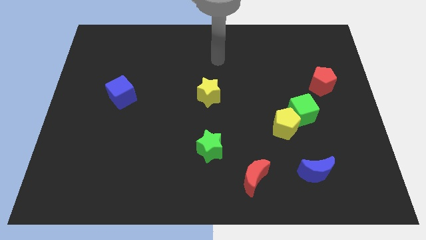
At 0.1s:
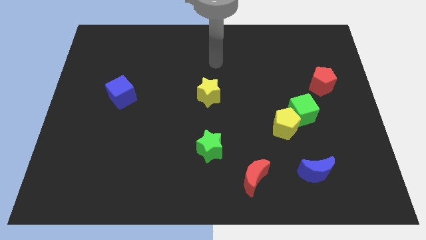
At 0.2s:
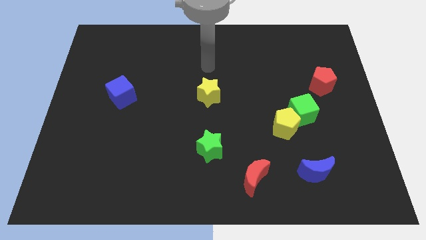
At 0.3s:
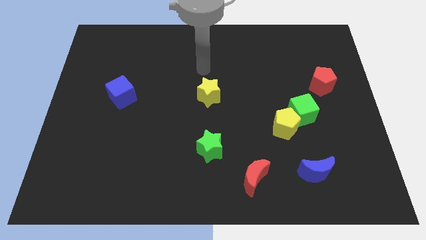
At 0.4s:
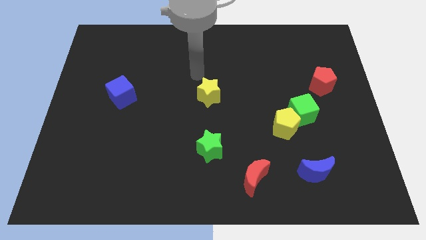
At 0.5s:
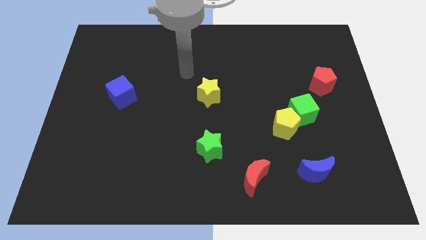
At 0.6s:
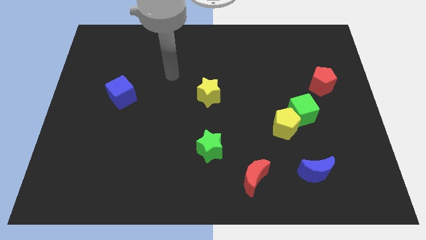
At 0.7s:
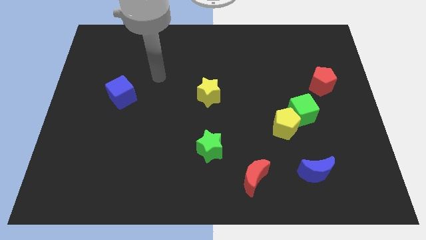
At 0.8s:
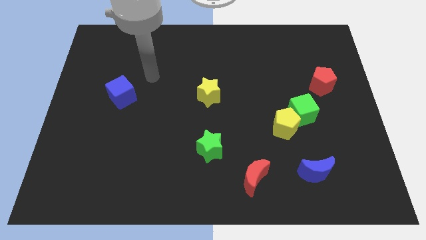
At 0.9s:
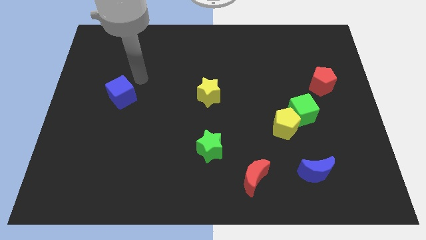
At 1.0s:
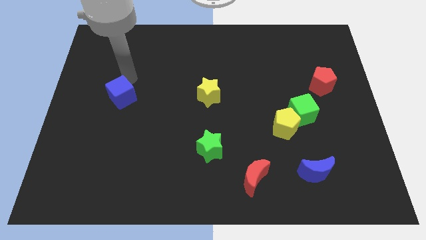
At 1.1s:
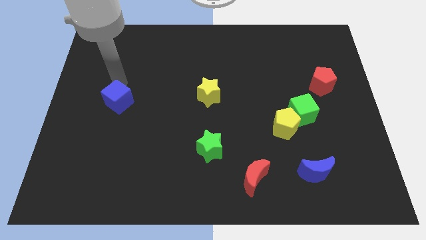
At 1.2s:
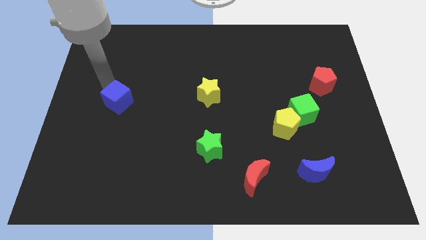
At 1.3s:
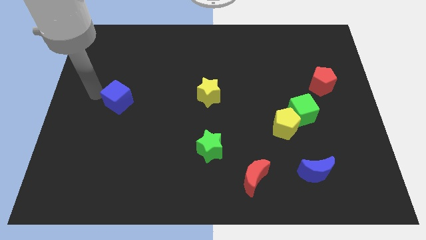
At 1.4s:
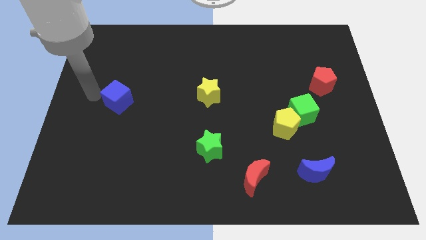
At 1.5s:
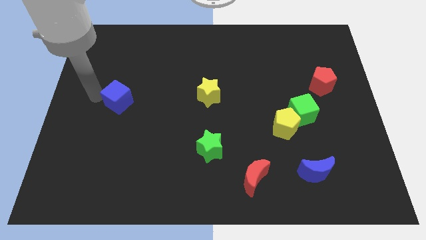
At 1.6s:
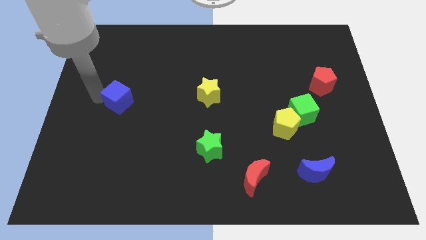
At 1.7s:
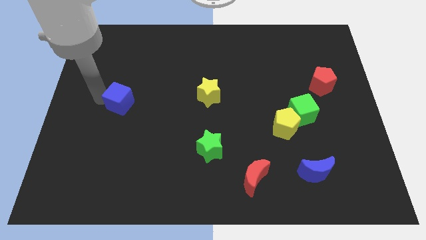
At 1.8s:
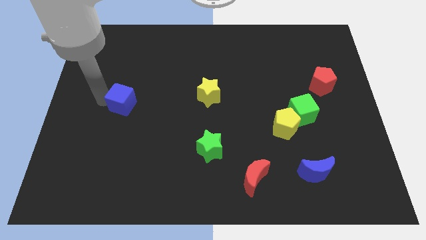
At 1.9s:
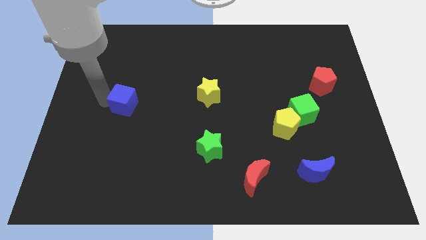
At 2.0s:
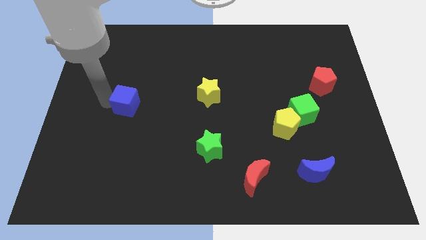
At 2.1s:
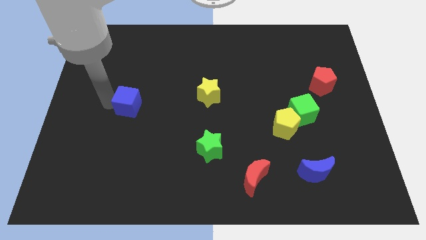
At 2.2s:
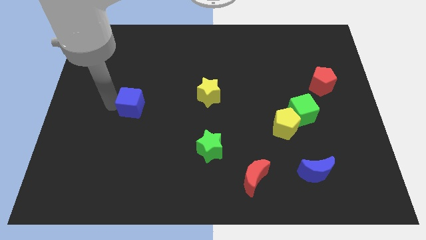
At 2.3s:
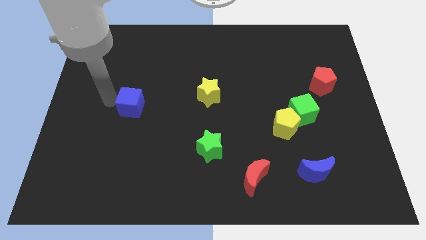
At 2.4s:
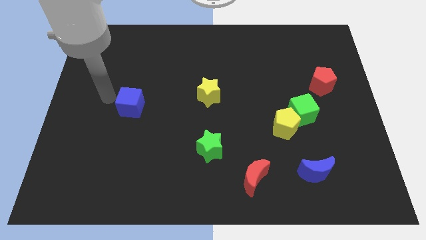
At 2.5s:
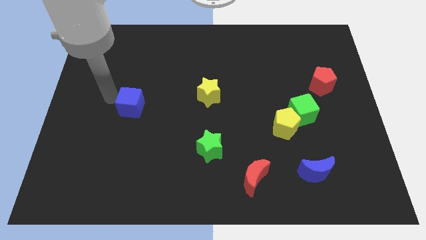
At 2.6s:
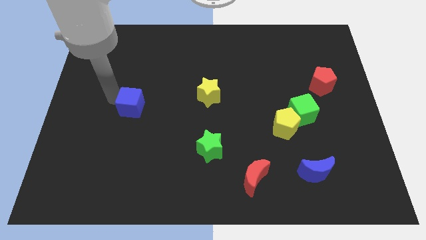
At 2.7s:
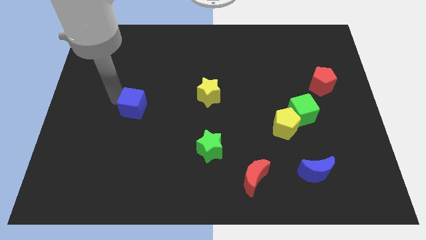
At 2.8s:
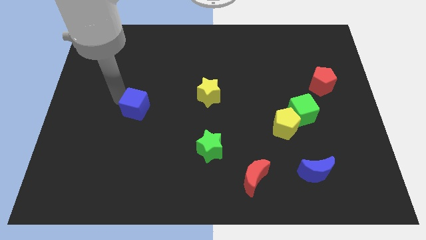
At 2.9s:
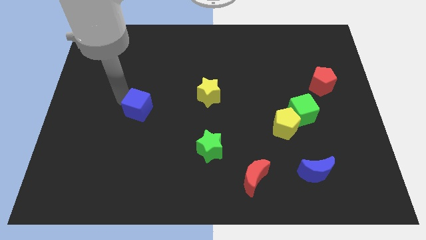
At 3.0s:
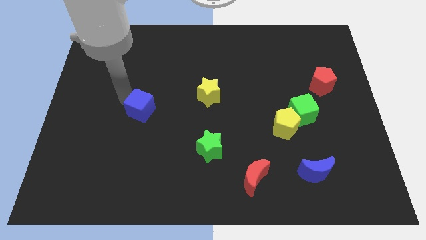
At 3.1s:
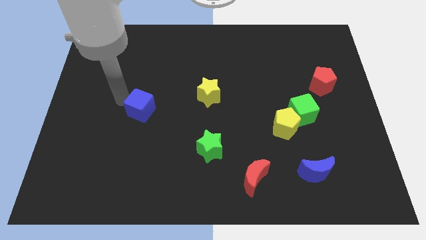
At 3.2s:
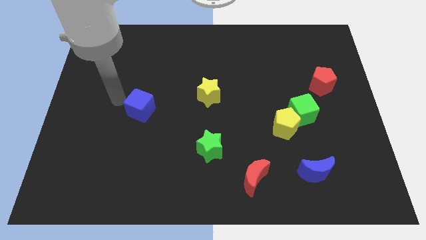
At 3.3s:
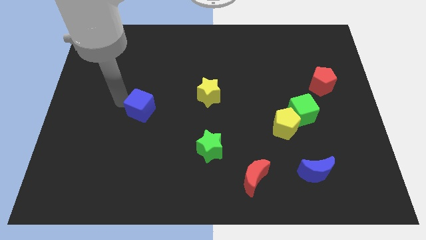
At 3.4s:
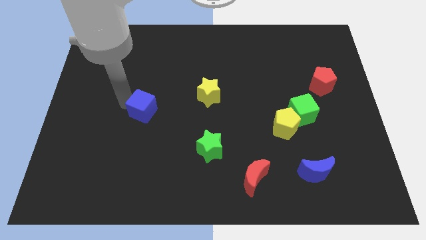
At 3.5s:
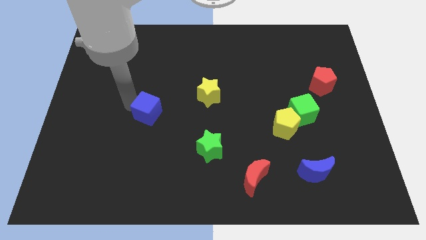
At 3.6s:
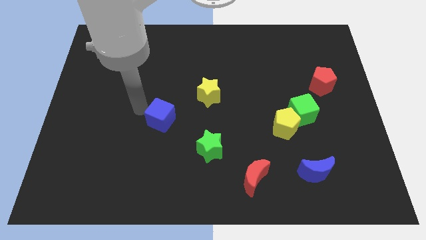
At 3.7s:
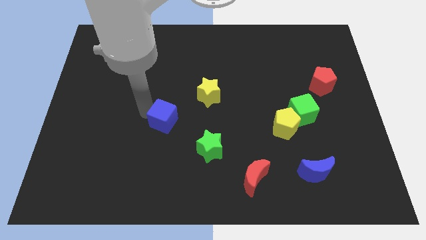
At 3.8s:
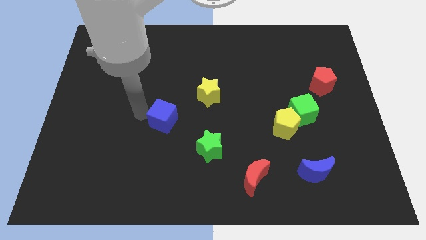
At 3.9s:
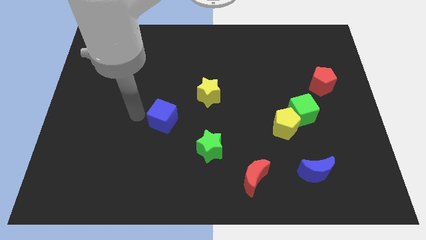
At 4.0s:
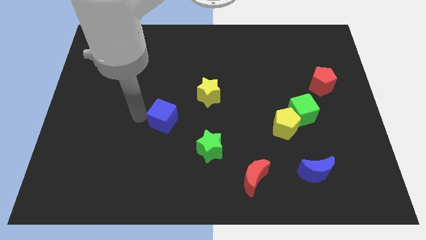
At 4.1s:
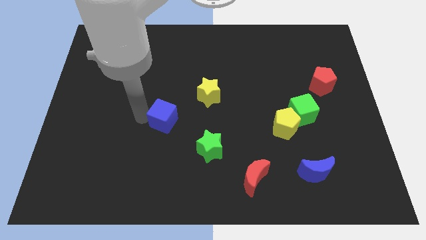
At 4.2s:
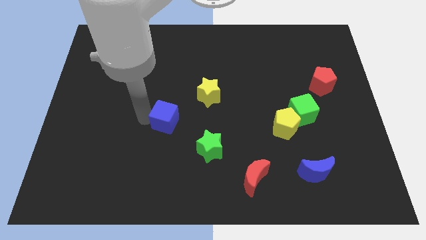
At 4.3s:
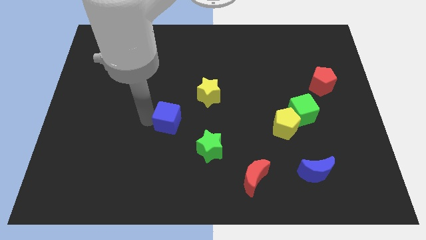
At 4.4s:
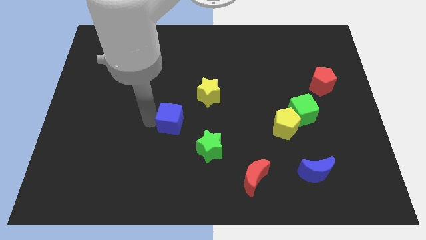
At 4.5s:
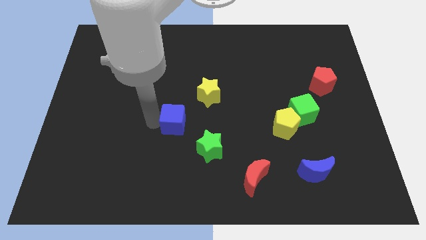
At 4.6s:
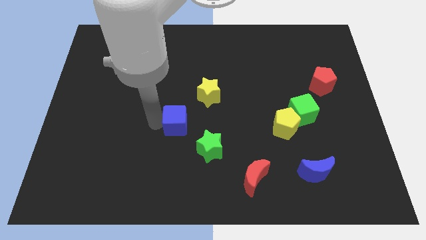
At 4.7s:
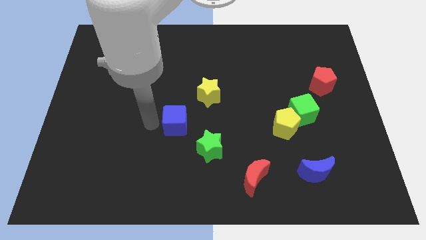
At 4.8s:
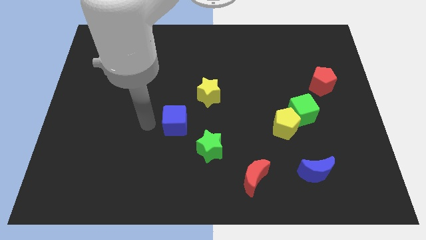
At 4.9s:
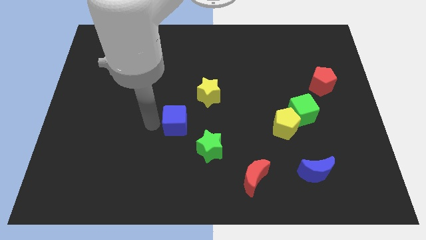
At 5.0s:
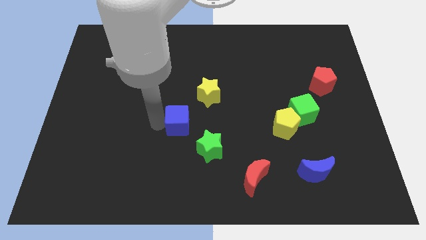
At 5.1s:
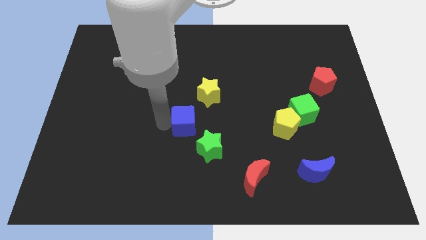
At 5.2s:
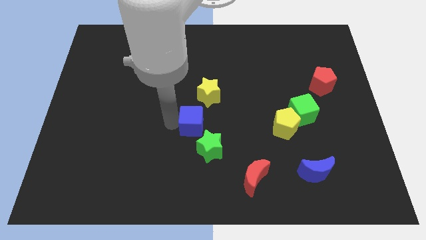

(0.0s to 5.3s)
slide the blue cube below the yellow star

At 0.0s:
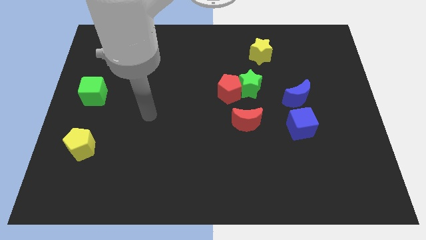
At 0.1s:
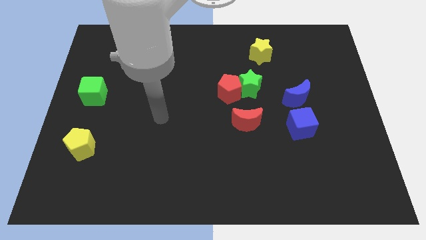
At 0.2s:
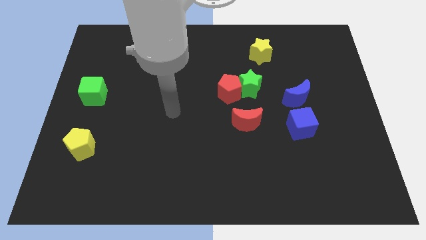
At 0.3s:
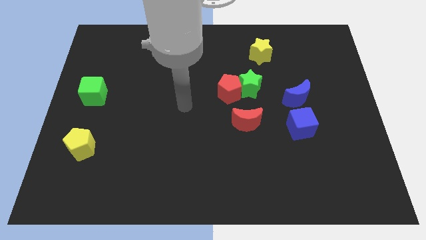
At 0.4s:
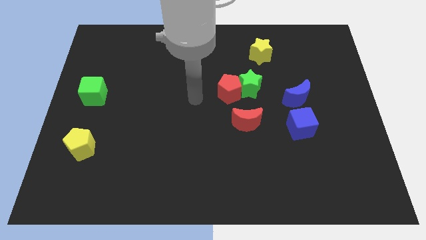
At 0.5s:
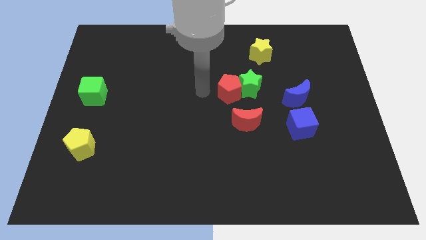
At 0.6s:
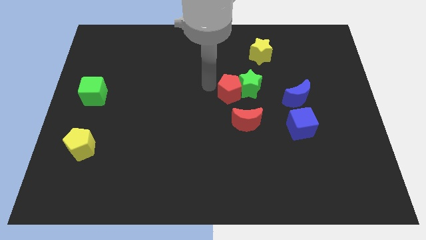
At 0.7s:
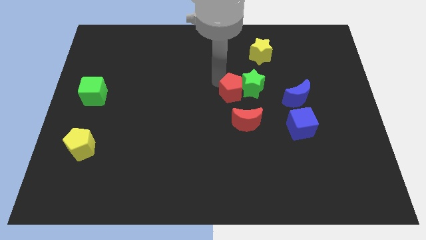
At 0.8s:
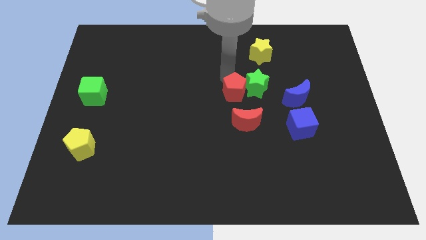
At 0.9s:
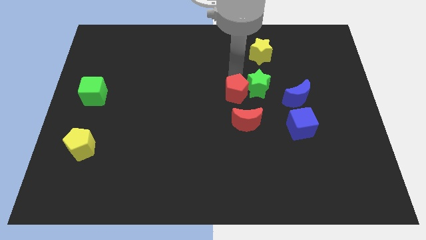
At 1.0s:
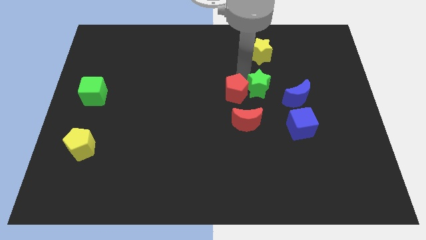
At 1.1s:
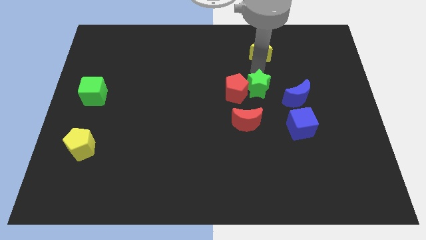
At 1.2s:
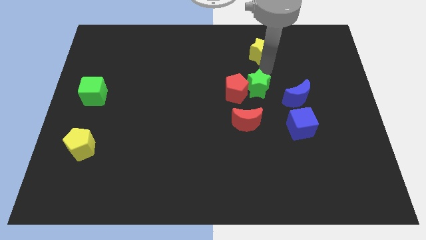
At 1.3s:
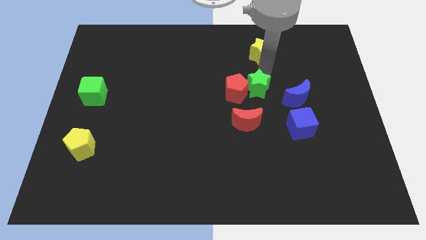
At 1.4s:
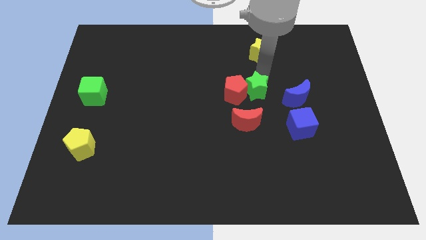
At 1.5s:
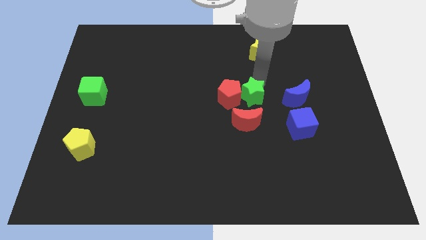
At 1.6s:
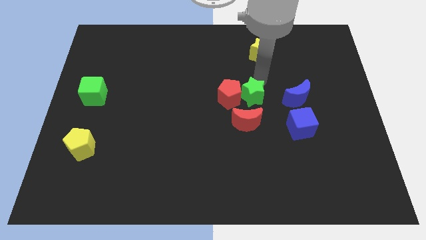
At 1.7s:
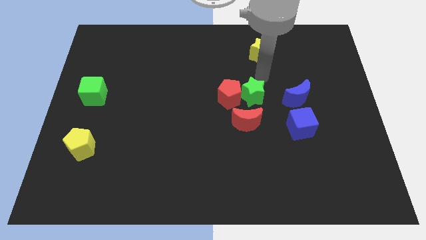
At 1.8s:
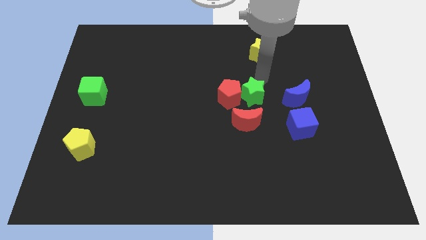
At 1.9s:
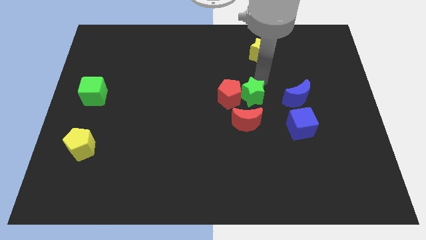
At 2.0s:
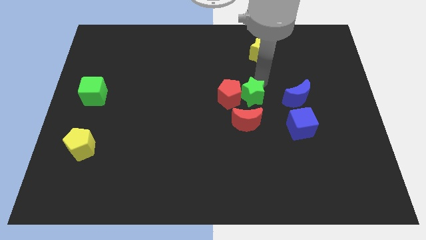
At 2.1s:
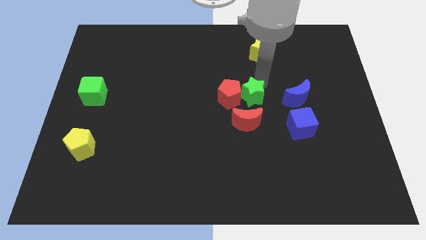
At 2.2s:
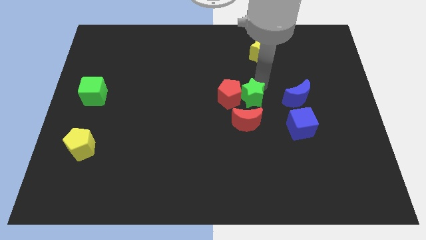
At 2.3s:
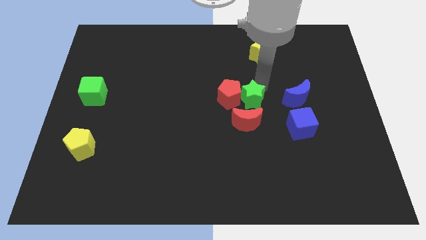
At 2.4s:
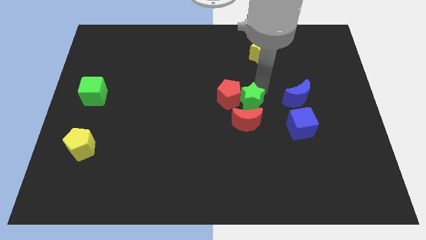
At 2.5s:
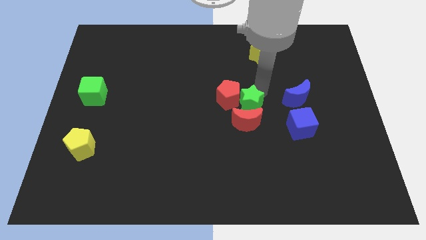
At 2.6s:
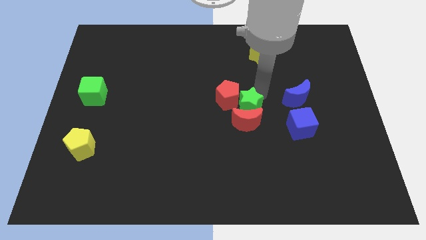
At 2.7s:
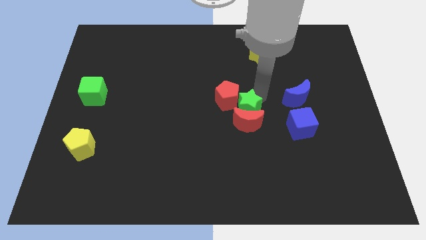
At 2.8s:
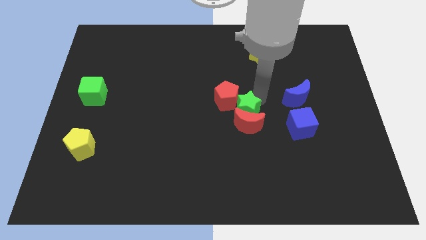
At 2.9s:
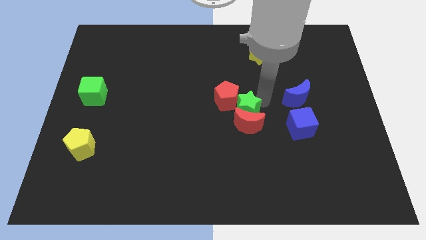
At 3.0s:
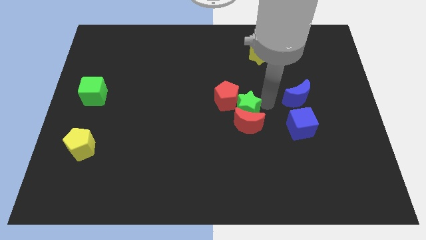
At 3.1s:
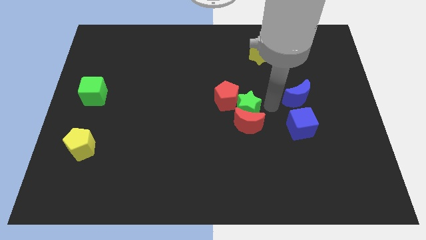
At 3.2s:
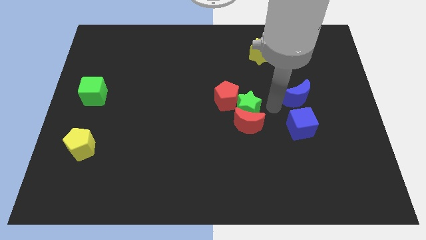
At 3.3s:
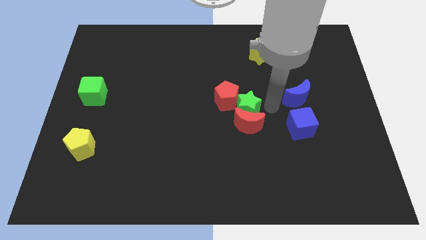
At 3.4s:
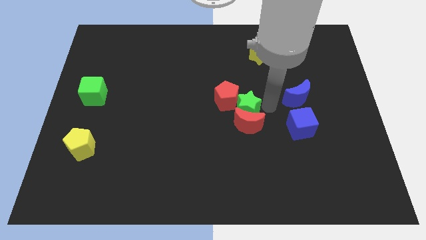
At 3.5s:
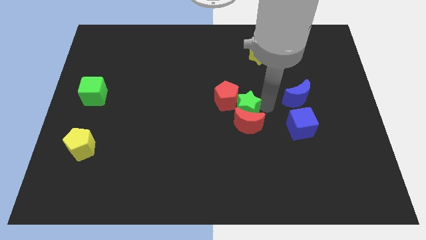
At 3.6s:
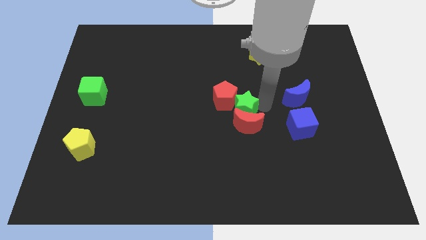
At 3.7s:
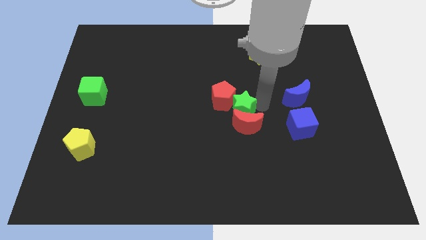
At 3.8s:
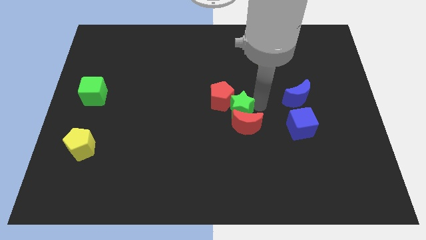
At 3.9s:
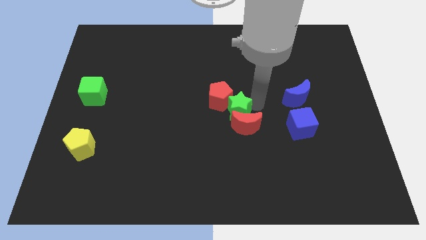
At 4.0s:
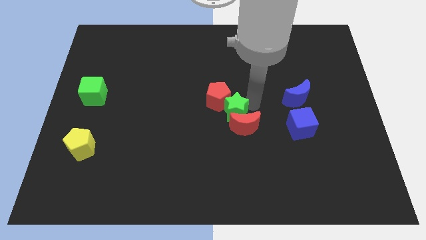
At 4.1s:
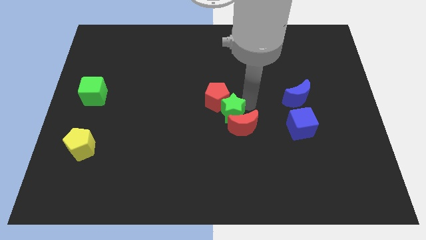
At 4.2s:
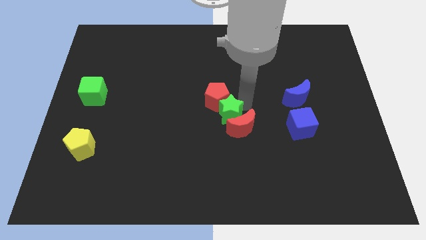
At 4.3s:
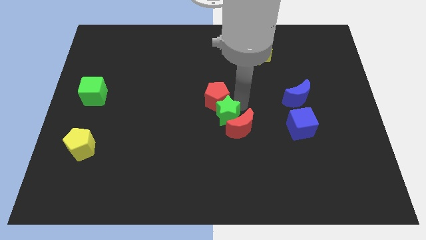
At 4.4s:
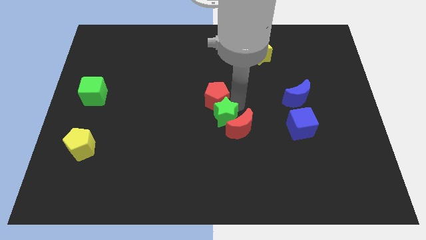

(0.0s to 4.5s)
move the green star to the bottom left side of the red pentagon
